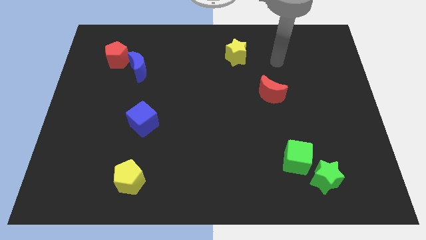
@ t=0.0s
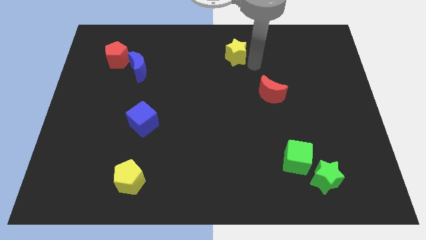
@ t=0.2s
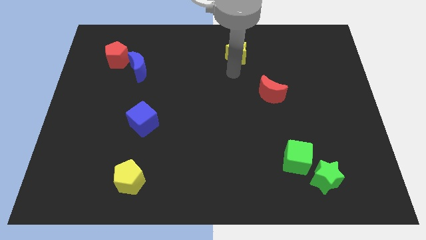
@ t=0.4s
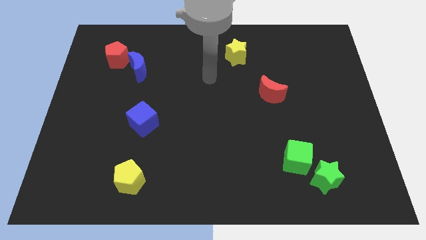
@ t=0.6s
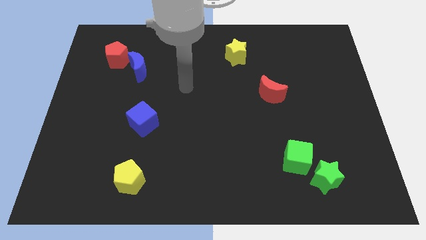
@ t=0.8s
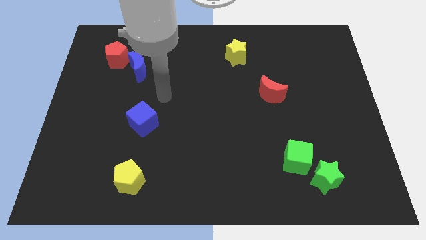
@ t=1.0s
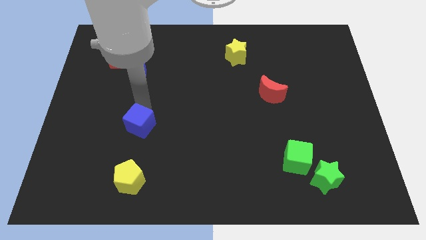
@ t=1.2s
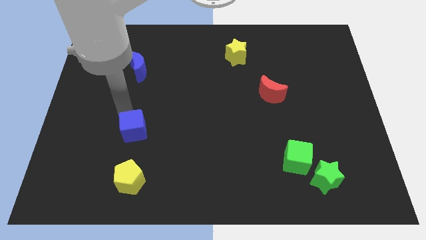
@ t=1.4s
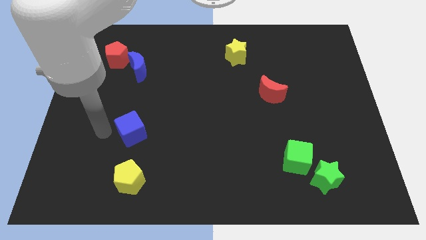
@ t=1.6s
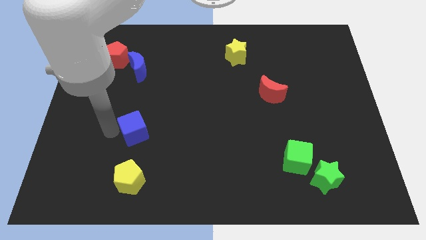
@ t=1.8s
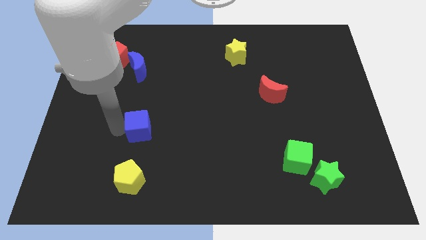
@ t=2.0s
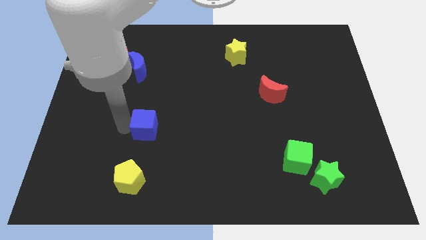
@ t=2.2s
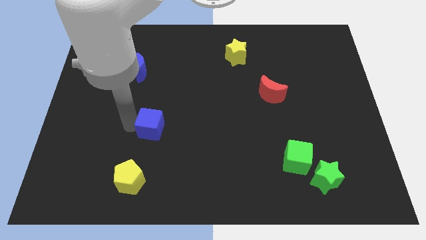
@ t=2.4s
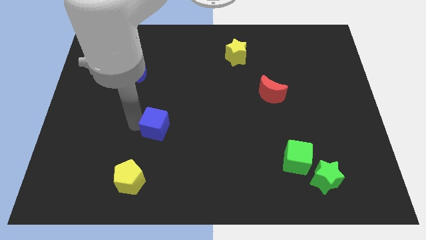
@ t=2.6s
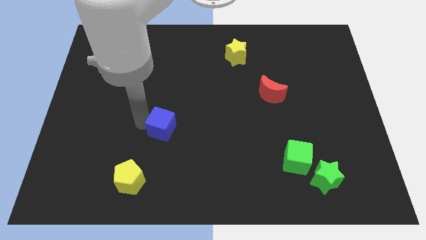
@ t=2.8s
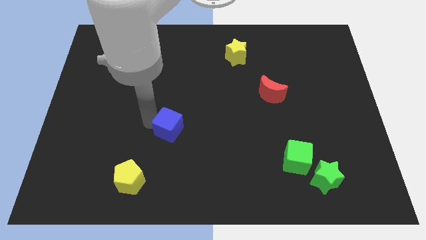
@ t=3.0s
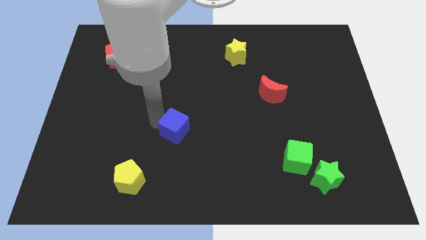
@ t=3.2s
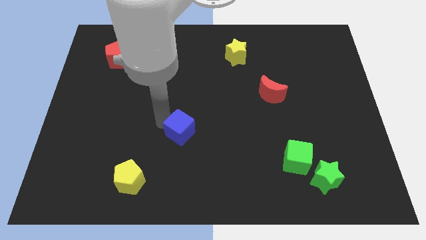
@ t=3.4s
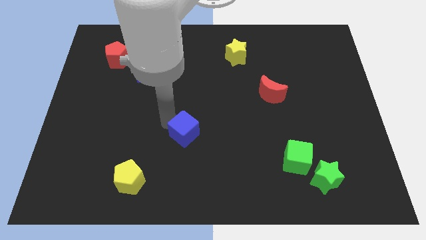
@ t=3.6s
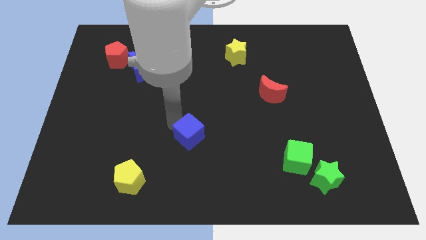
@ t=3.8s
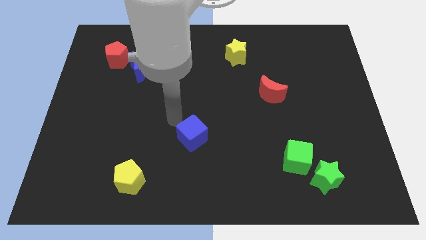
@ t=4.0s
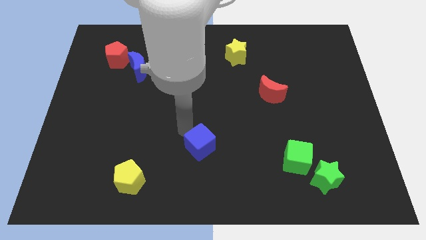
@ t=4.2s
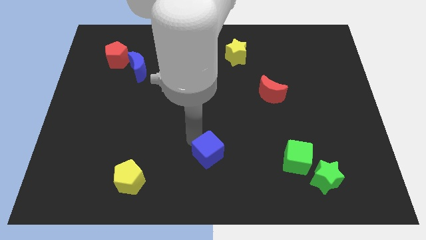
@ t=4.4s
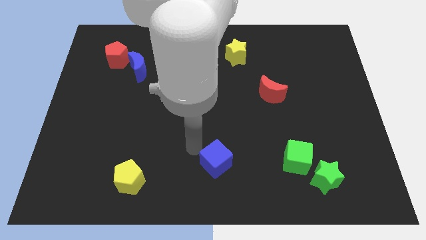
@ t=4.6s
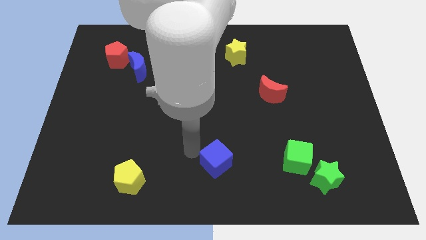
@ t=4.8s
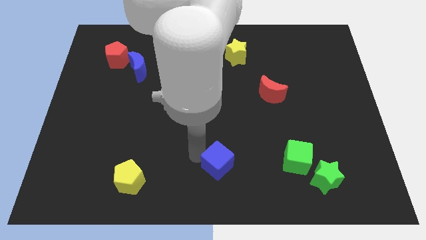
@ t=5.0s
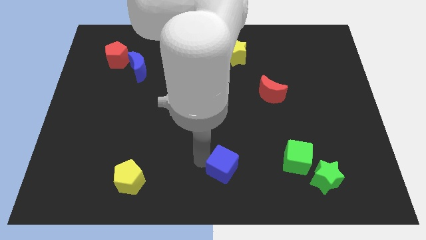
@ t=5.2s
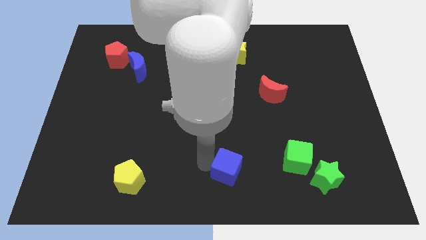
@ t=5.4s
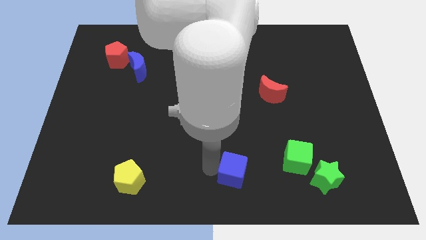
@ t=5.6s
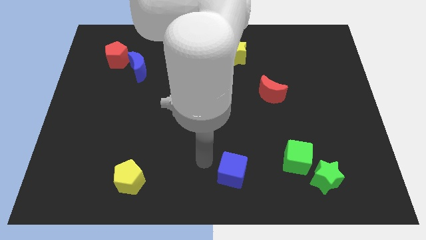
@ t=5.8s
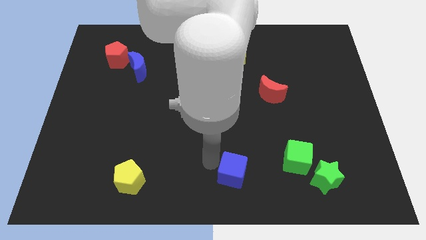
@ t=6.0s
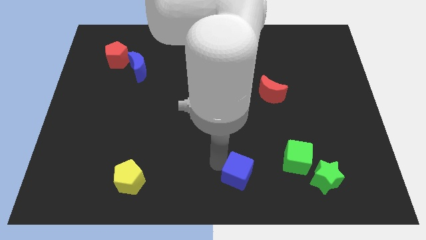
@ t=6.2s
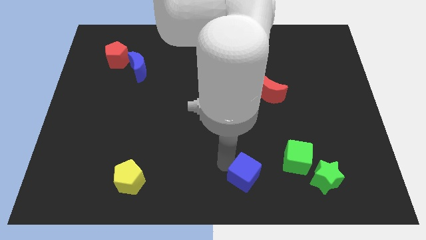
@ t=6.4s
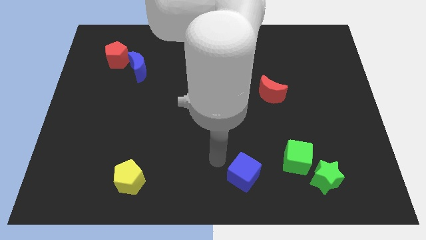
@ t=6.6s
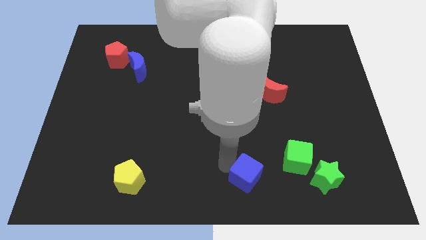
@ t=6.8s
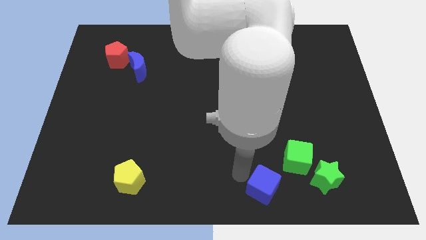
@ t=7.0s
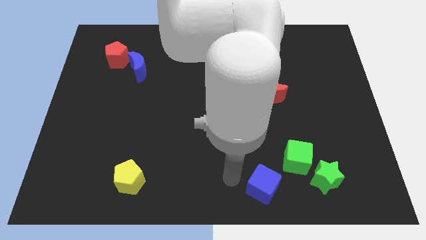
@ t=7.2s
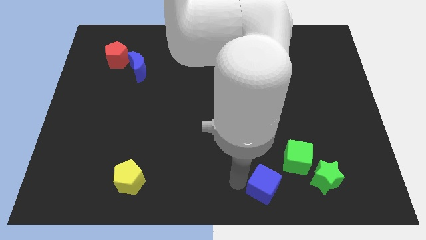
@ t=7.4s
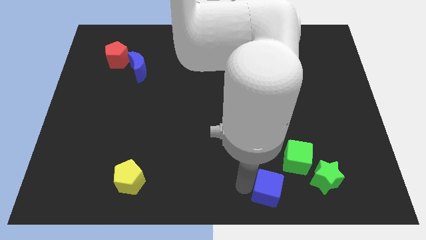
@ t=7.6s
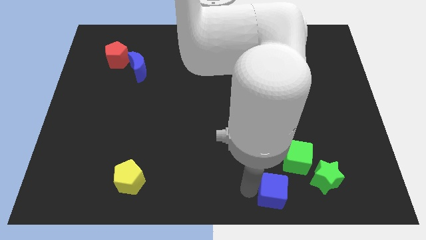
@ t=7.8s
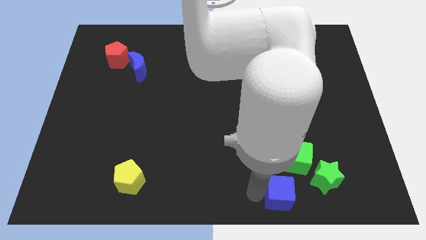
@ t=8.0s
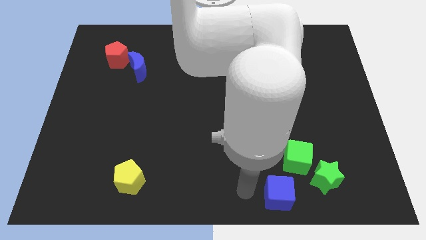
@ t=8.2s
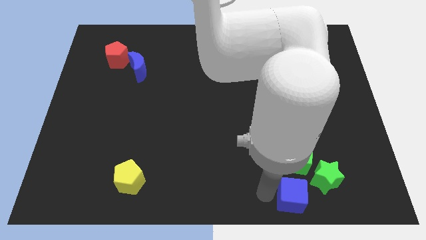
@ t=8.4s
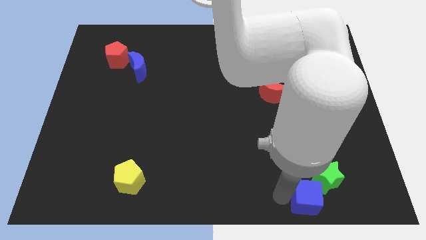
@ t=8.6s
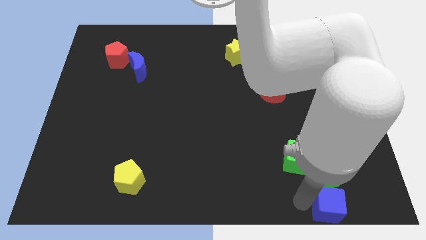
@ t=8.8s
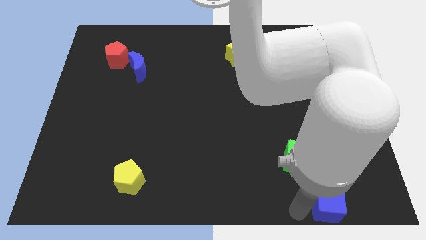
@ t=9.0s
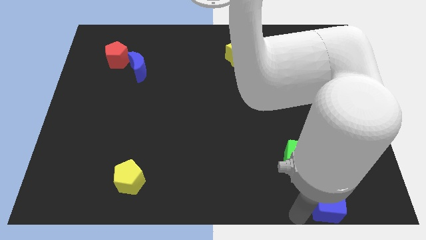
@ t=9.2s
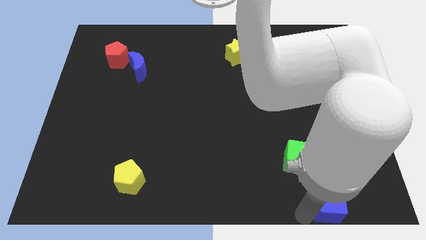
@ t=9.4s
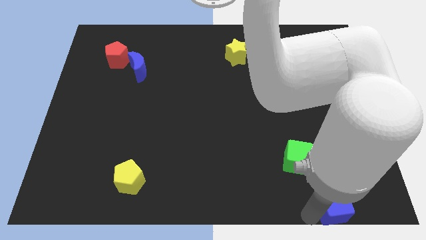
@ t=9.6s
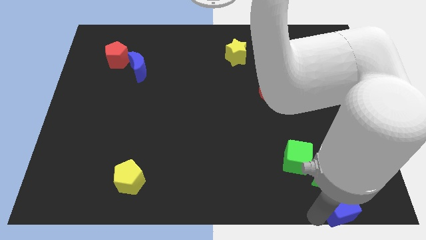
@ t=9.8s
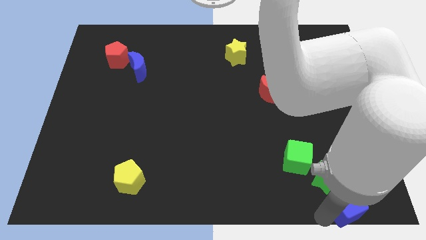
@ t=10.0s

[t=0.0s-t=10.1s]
put the blue cube to the bottom right

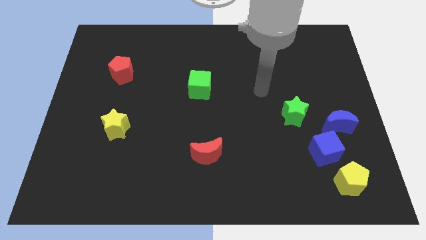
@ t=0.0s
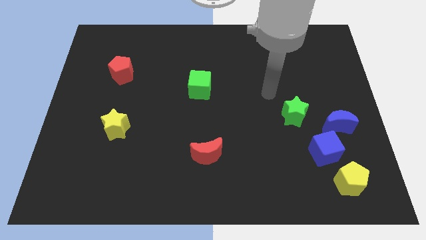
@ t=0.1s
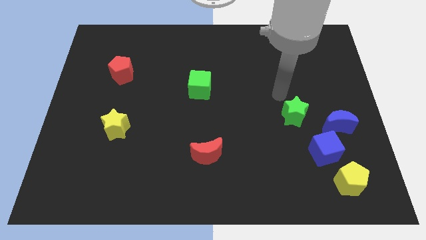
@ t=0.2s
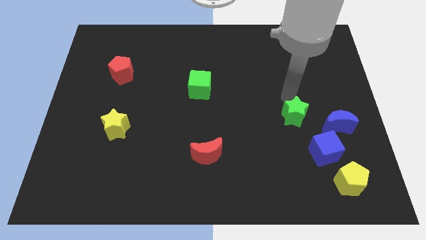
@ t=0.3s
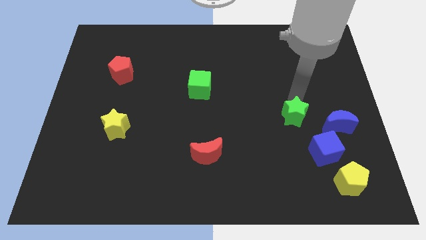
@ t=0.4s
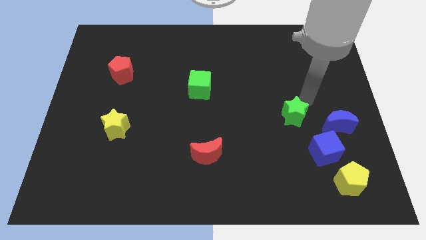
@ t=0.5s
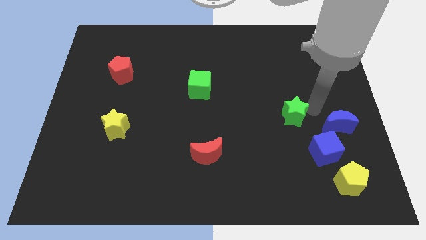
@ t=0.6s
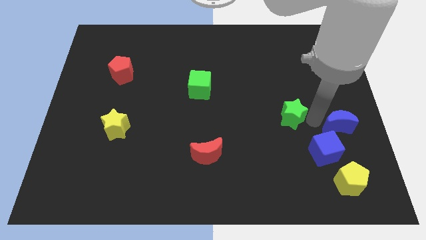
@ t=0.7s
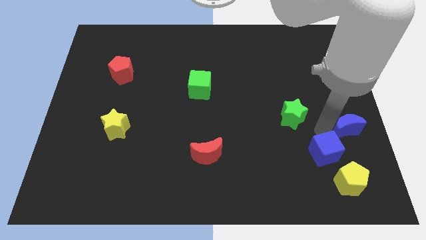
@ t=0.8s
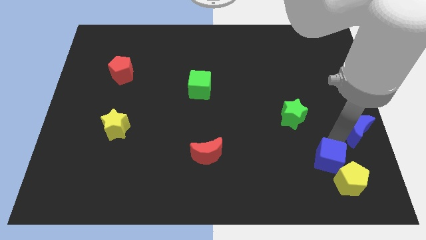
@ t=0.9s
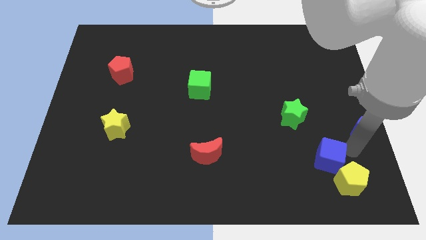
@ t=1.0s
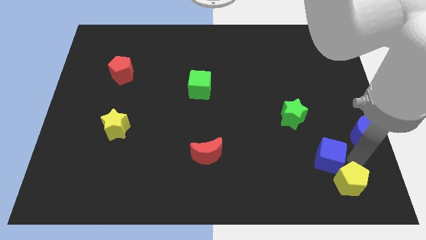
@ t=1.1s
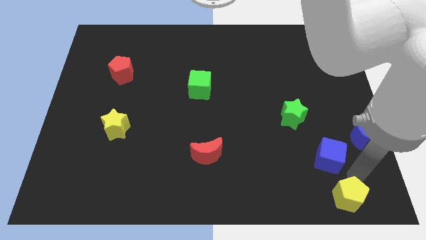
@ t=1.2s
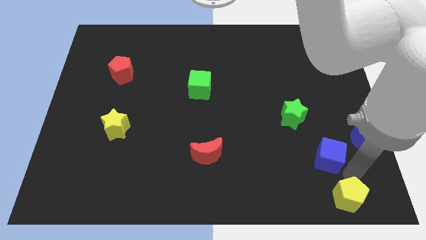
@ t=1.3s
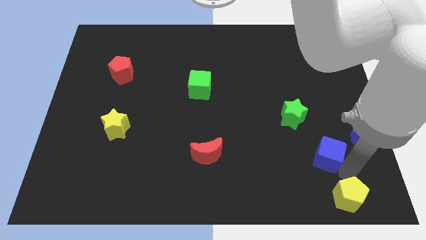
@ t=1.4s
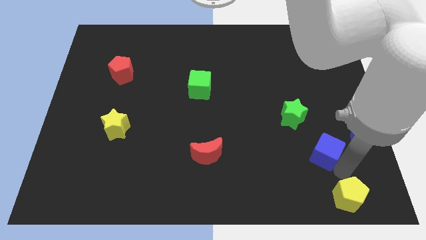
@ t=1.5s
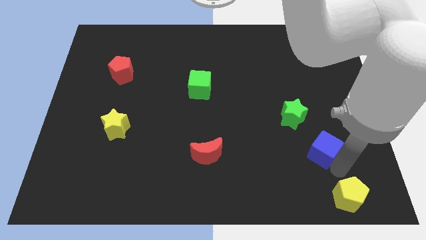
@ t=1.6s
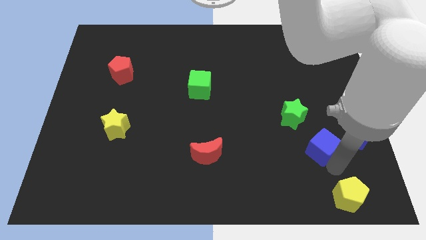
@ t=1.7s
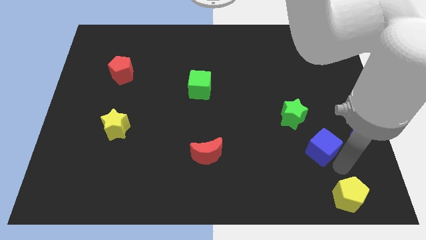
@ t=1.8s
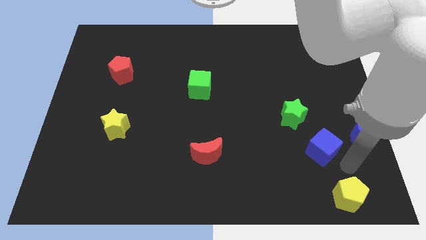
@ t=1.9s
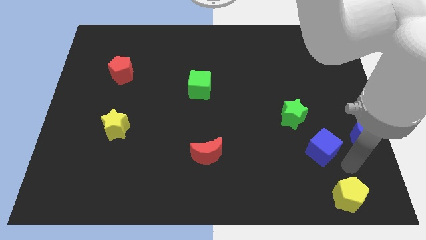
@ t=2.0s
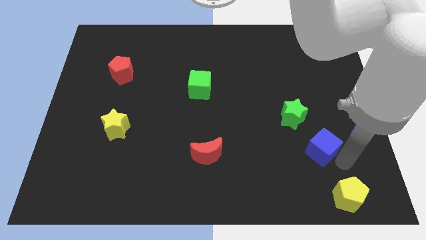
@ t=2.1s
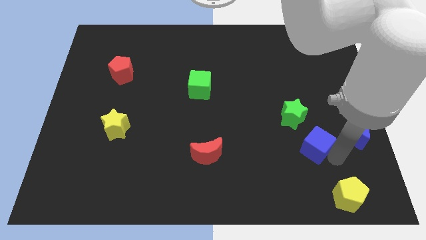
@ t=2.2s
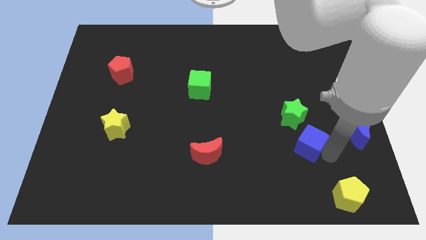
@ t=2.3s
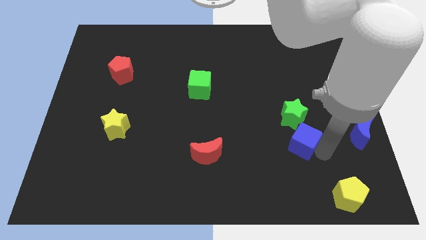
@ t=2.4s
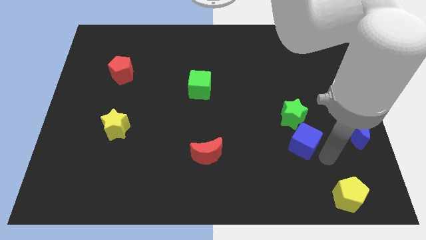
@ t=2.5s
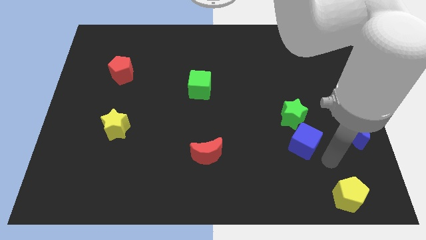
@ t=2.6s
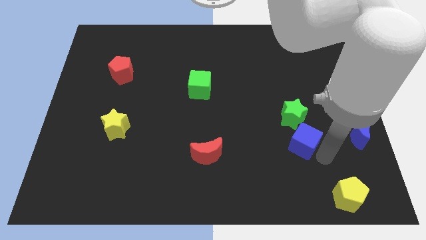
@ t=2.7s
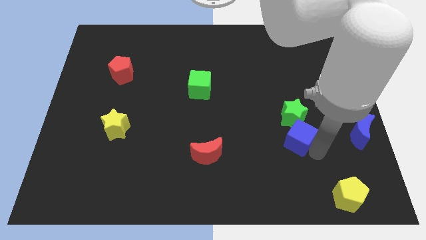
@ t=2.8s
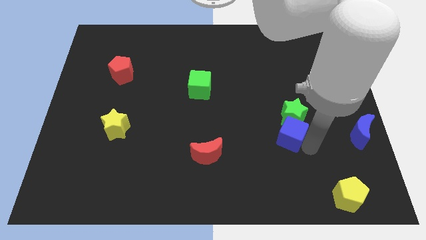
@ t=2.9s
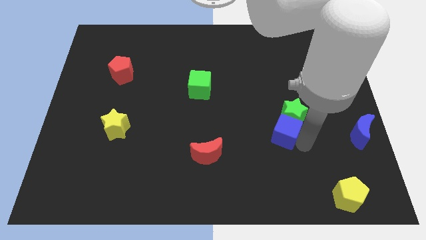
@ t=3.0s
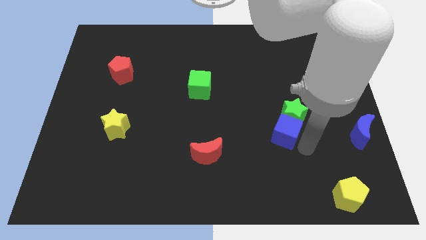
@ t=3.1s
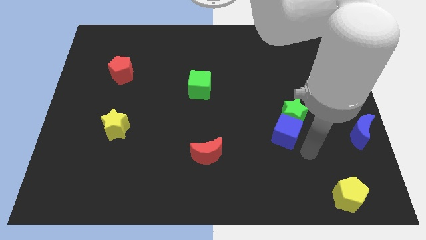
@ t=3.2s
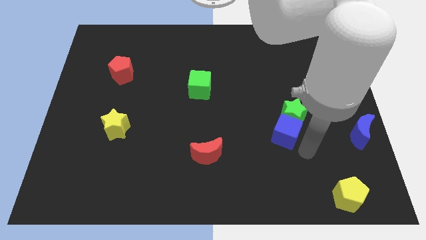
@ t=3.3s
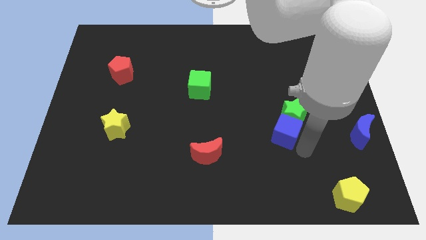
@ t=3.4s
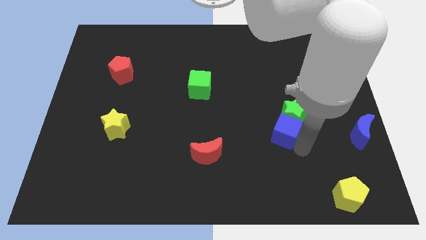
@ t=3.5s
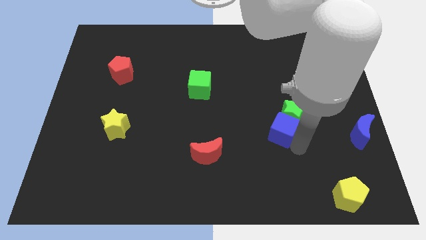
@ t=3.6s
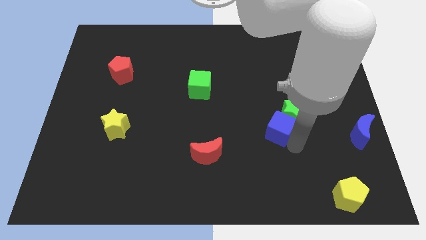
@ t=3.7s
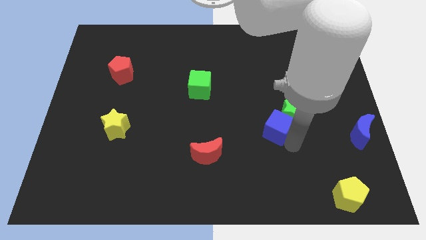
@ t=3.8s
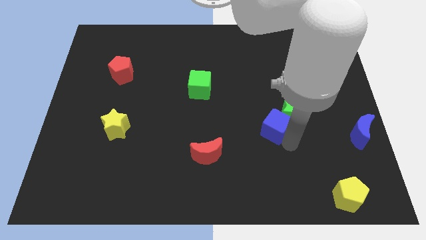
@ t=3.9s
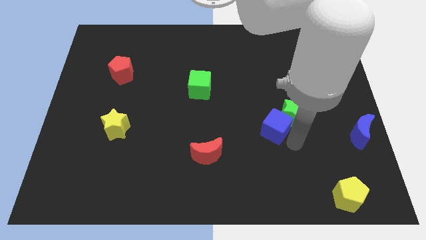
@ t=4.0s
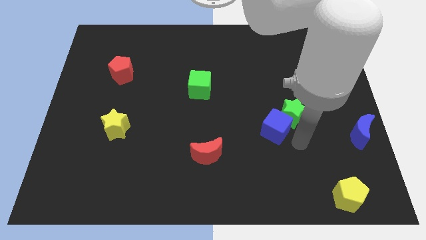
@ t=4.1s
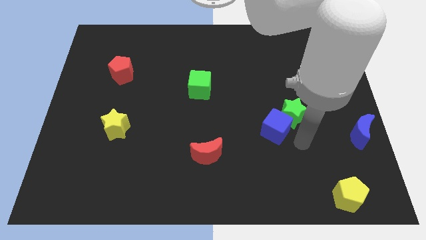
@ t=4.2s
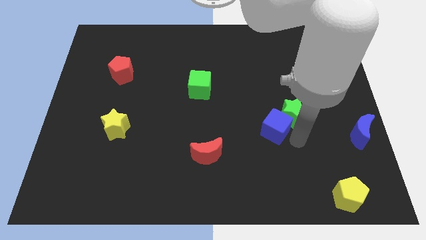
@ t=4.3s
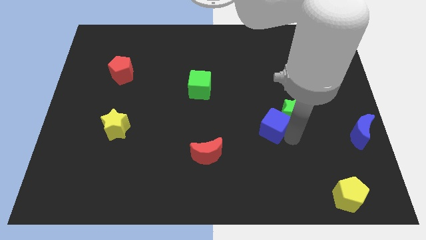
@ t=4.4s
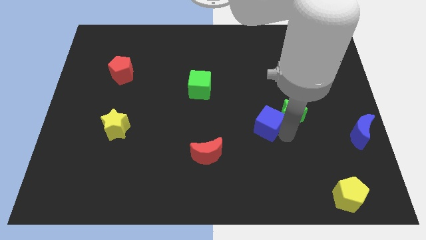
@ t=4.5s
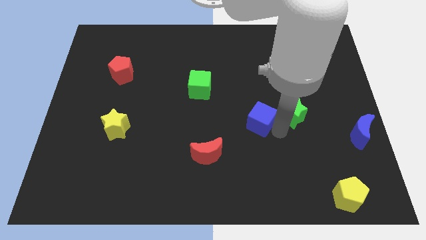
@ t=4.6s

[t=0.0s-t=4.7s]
slide the blue cube to the middle of the board
